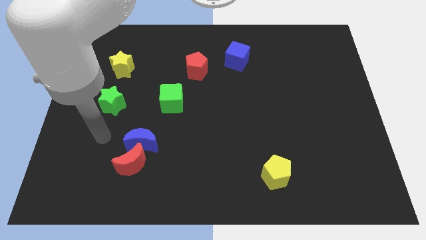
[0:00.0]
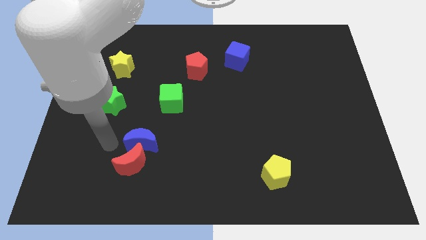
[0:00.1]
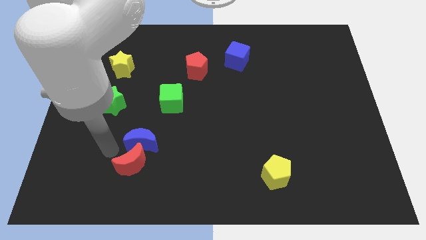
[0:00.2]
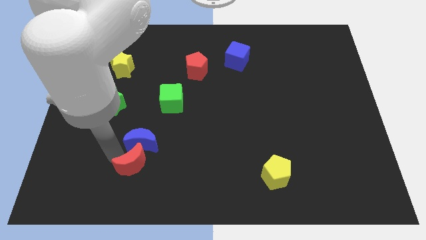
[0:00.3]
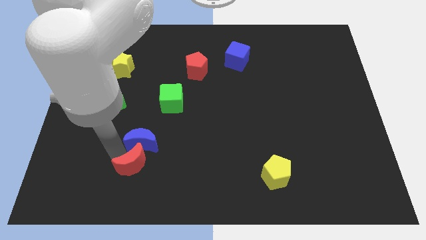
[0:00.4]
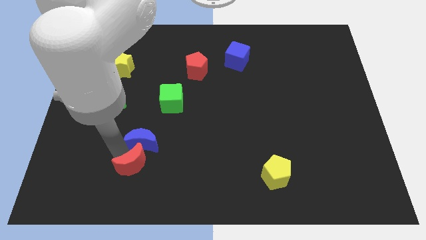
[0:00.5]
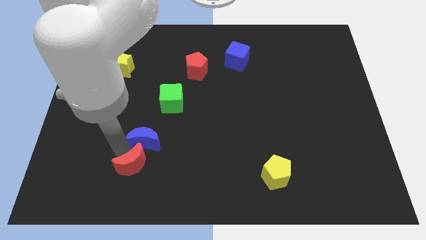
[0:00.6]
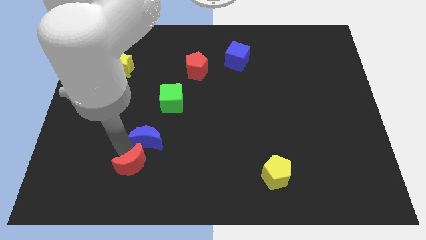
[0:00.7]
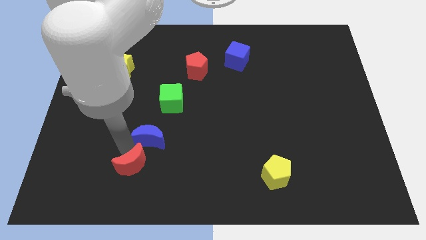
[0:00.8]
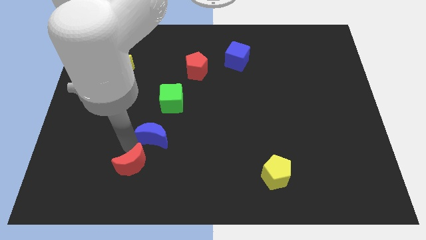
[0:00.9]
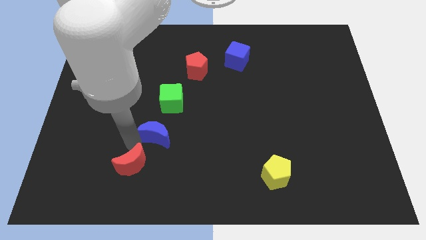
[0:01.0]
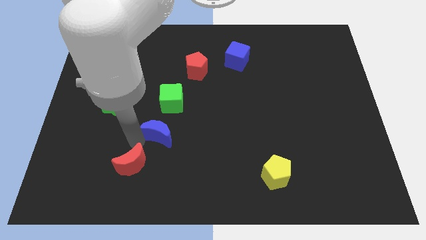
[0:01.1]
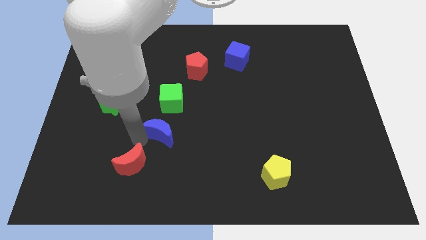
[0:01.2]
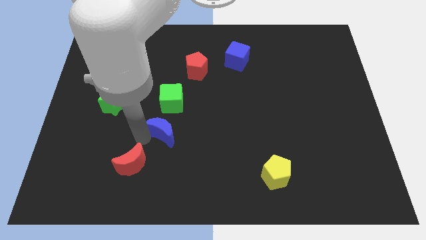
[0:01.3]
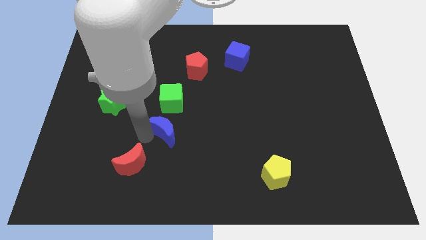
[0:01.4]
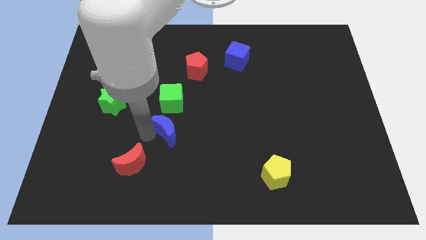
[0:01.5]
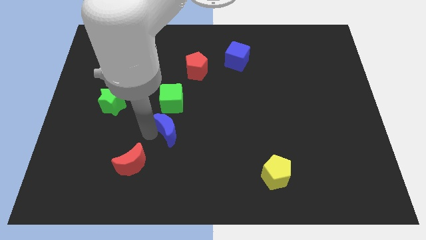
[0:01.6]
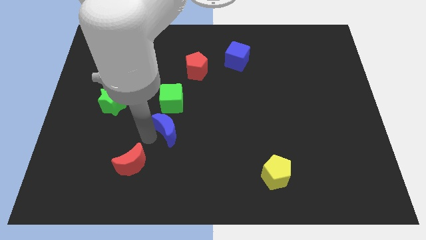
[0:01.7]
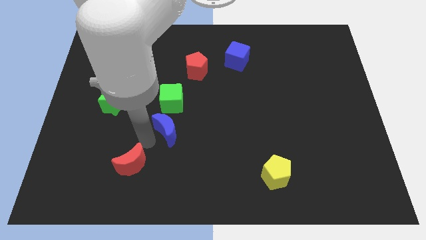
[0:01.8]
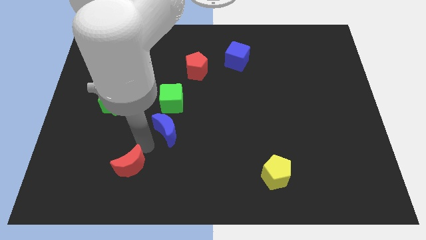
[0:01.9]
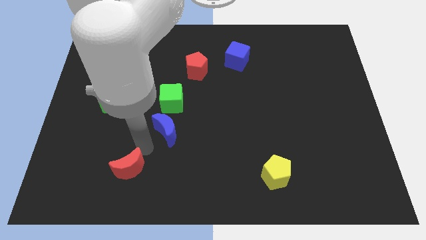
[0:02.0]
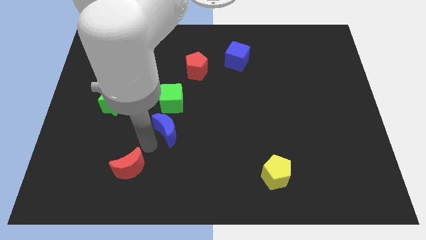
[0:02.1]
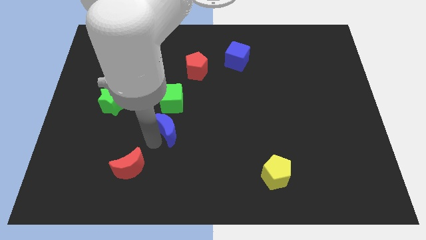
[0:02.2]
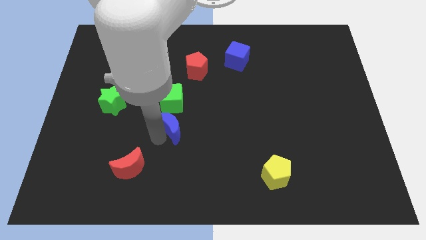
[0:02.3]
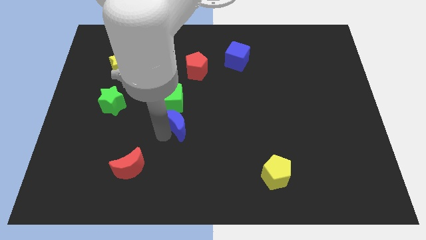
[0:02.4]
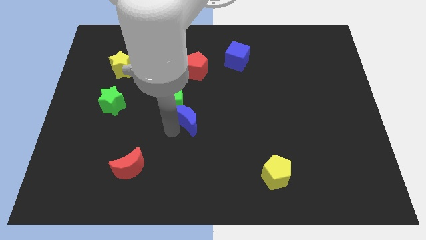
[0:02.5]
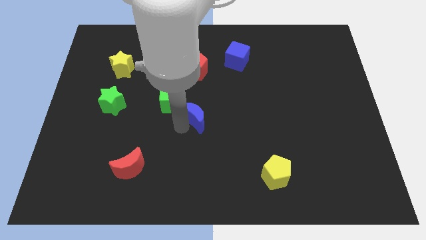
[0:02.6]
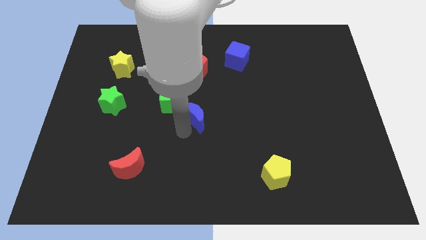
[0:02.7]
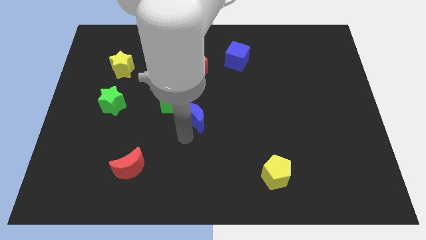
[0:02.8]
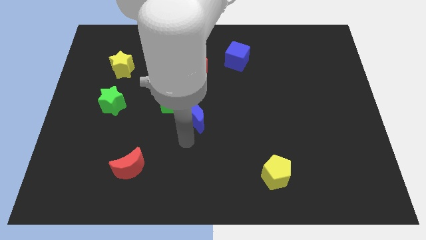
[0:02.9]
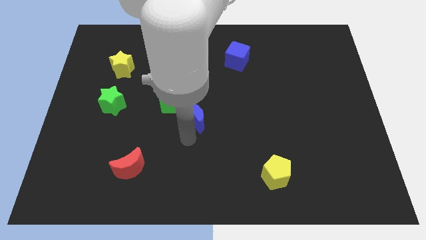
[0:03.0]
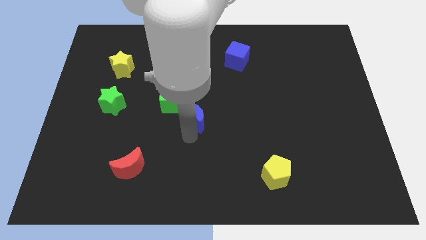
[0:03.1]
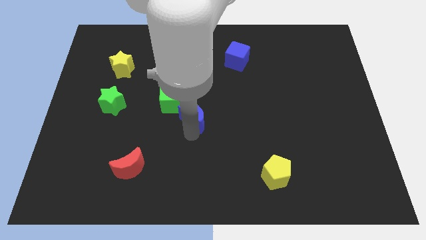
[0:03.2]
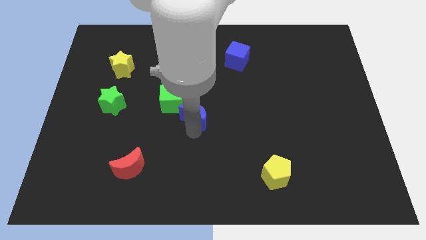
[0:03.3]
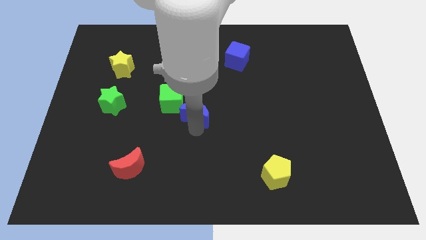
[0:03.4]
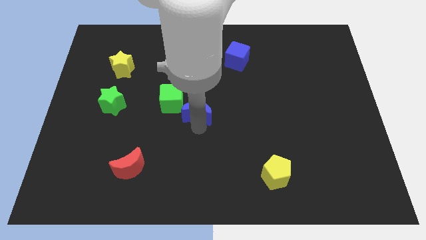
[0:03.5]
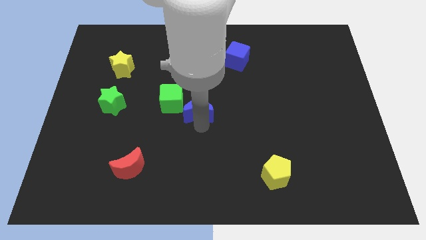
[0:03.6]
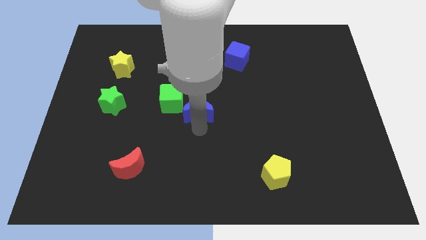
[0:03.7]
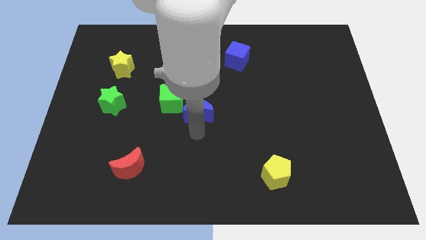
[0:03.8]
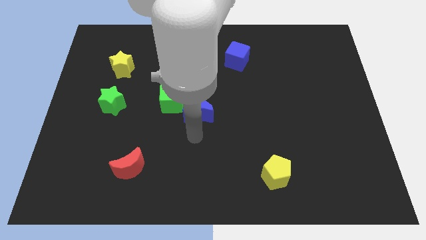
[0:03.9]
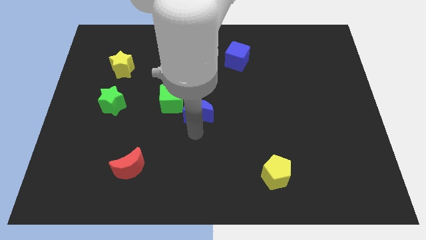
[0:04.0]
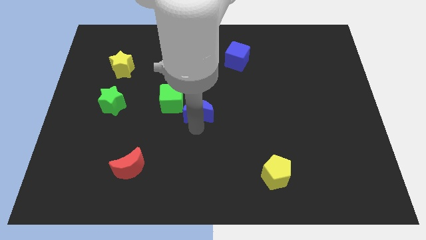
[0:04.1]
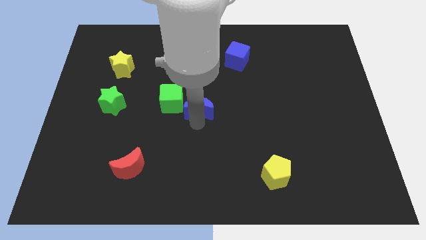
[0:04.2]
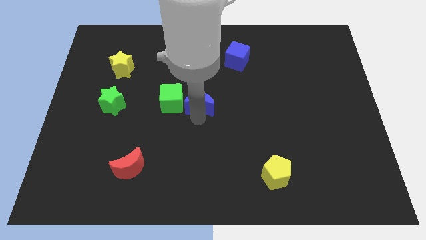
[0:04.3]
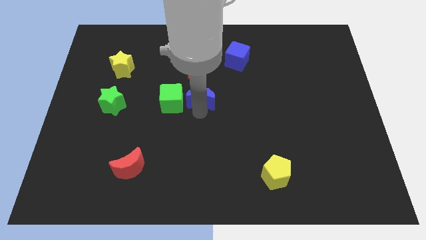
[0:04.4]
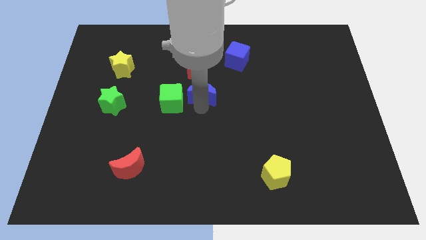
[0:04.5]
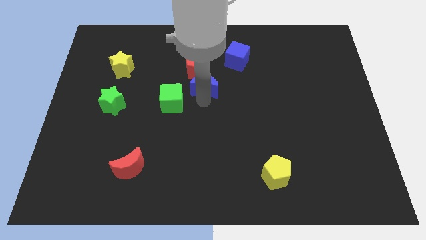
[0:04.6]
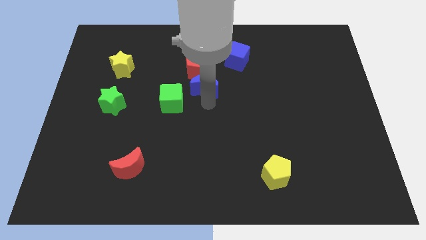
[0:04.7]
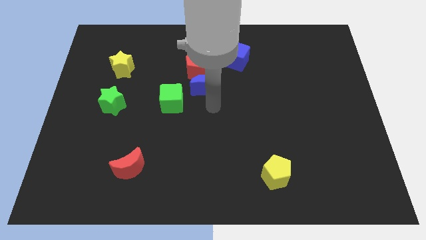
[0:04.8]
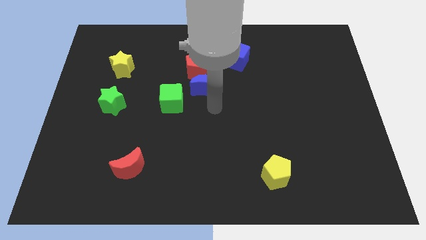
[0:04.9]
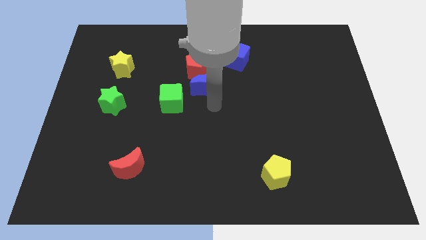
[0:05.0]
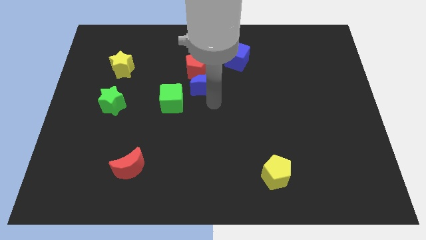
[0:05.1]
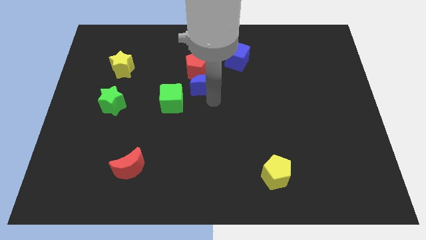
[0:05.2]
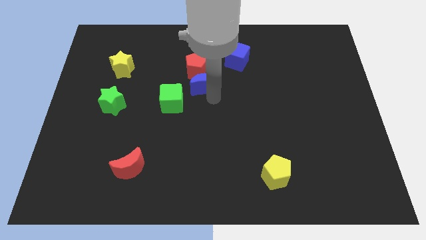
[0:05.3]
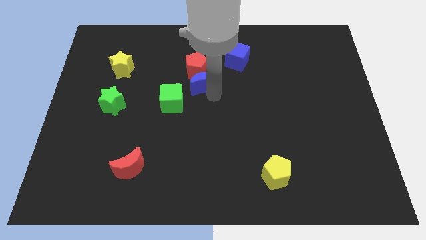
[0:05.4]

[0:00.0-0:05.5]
push the blue moon towards the red pentagon

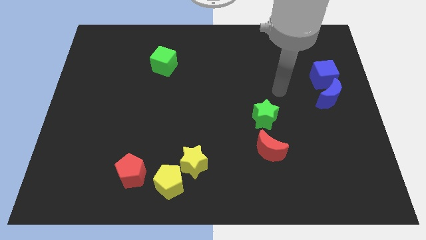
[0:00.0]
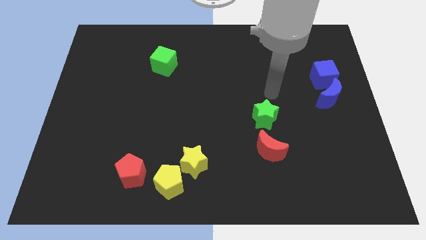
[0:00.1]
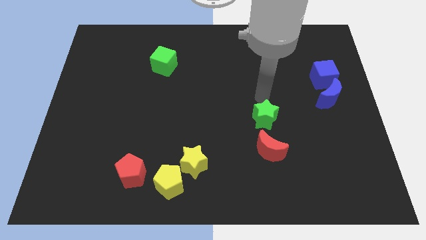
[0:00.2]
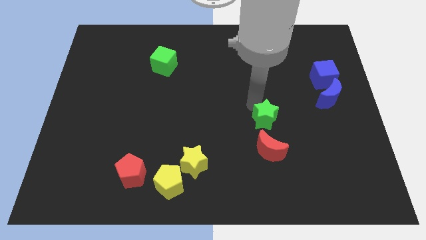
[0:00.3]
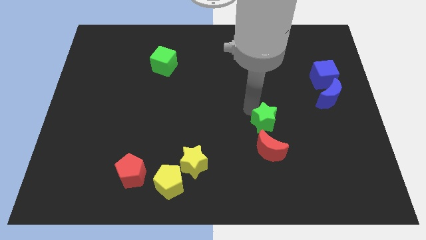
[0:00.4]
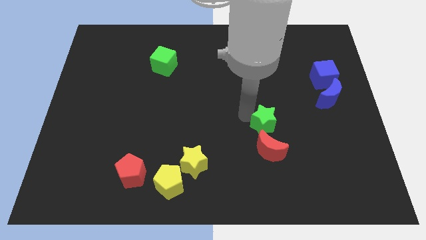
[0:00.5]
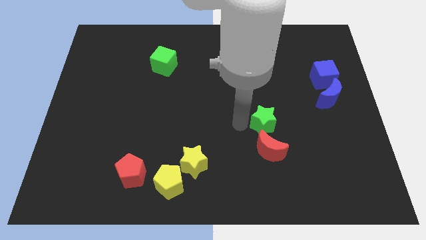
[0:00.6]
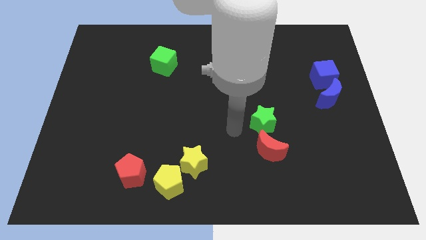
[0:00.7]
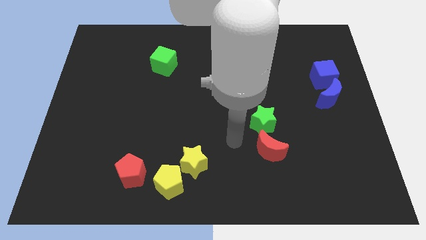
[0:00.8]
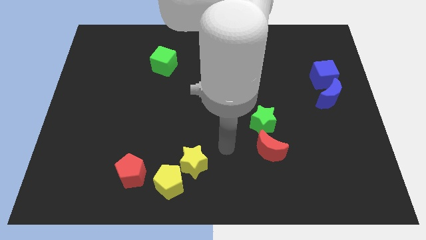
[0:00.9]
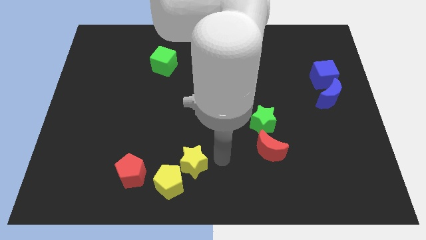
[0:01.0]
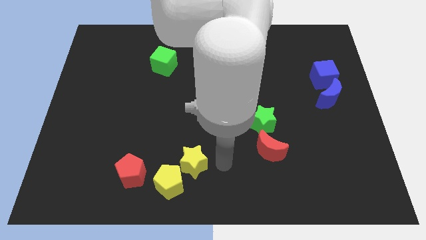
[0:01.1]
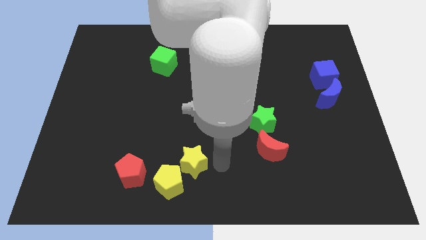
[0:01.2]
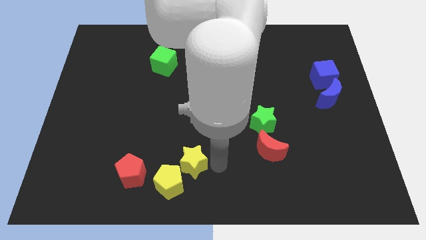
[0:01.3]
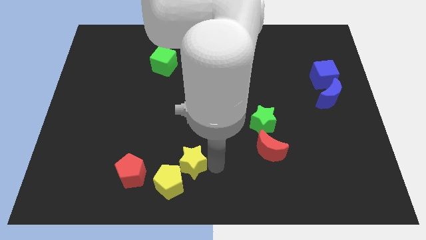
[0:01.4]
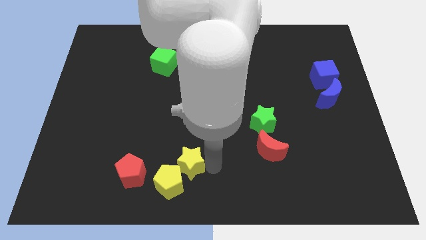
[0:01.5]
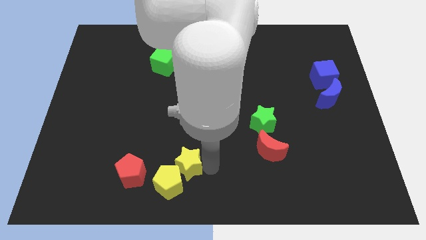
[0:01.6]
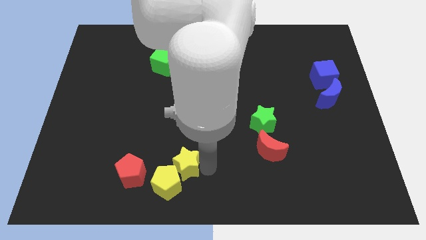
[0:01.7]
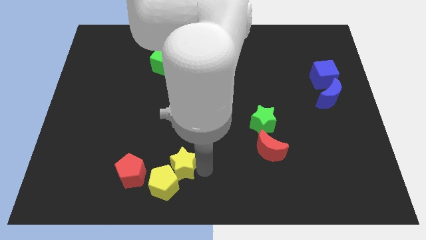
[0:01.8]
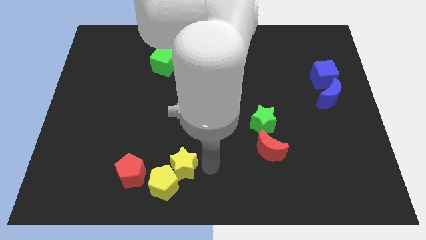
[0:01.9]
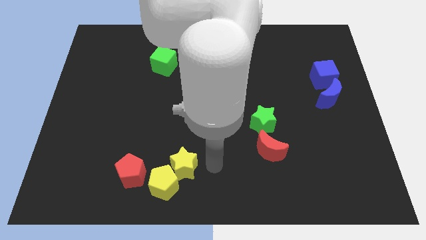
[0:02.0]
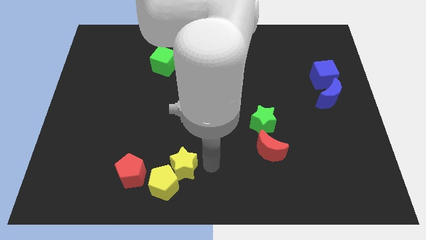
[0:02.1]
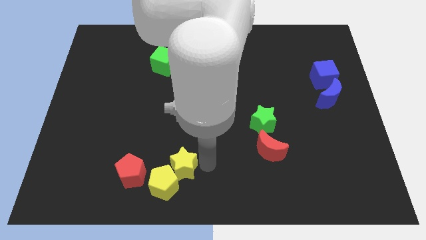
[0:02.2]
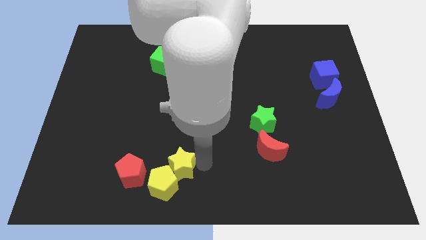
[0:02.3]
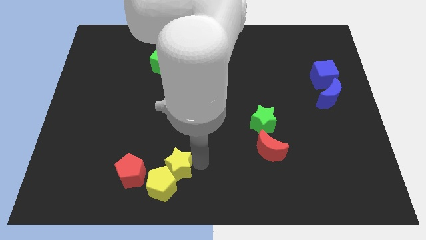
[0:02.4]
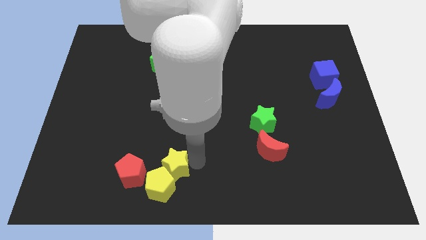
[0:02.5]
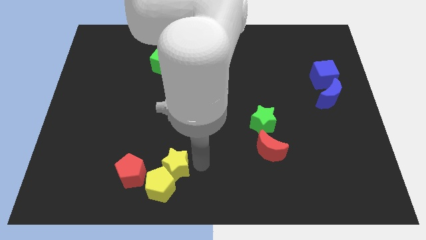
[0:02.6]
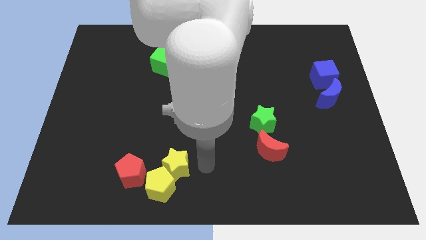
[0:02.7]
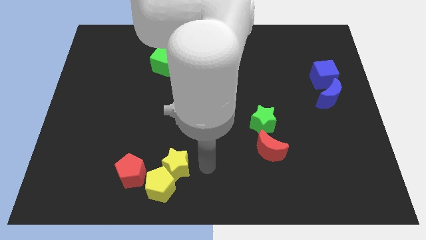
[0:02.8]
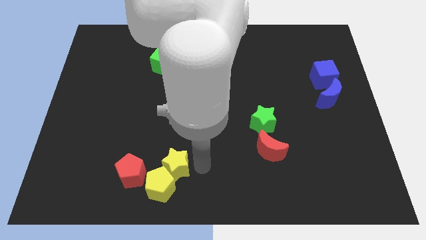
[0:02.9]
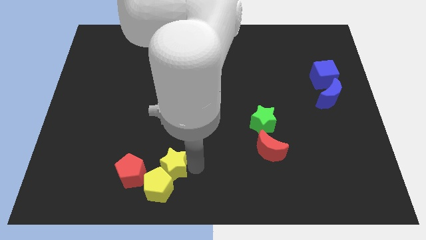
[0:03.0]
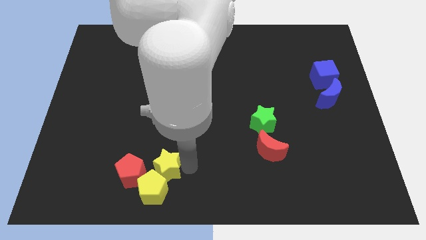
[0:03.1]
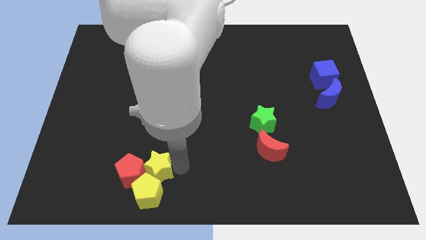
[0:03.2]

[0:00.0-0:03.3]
push the yellow star close to the red pentagon
